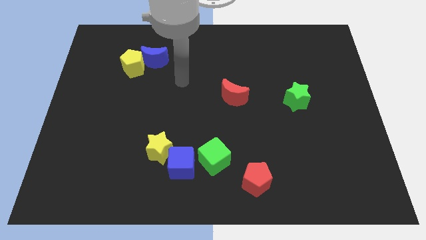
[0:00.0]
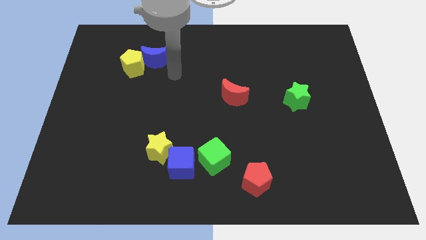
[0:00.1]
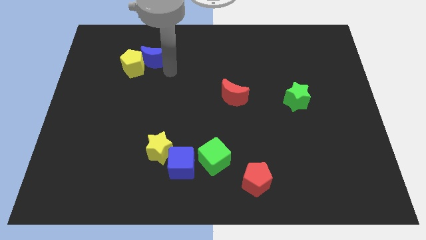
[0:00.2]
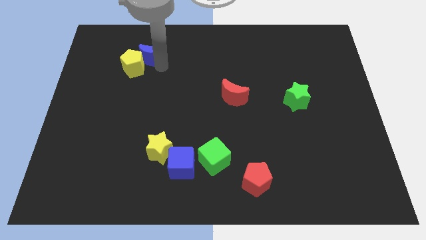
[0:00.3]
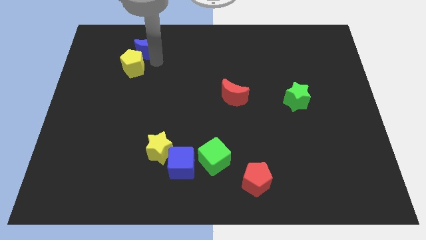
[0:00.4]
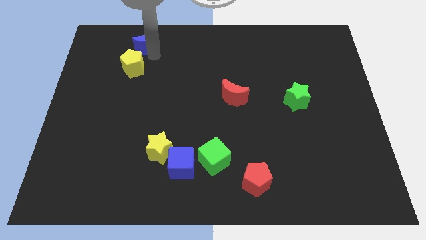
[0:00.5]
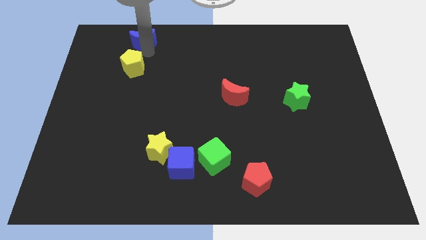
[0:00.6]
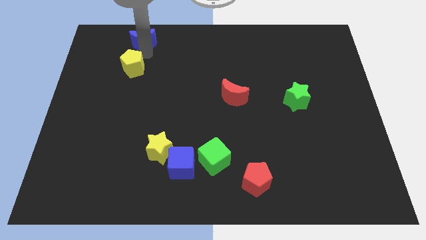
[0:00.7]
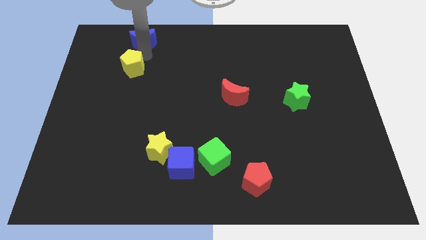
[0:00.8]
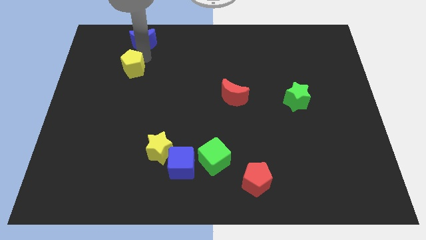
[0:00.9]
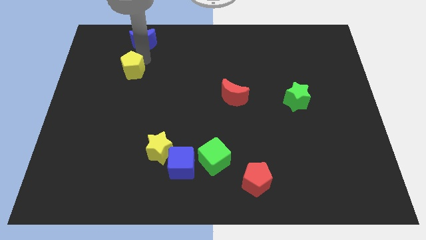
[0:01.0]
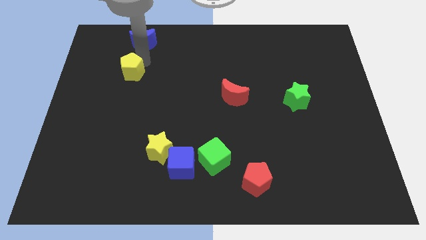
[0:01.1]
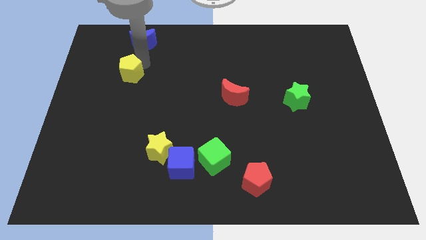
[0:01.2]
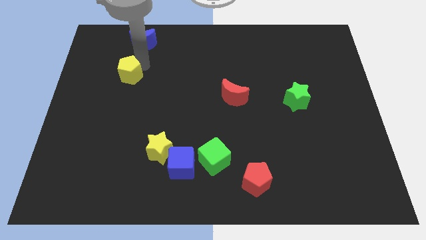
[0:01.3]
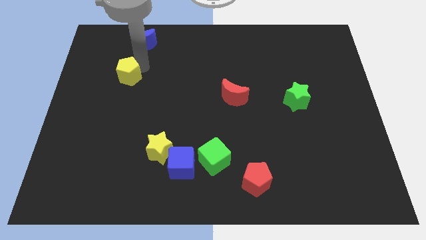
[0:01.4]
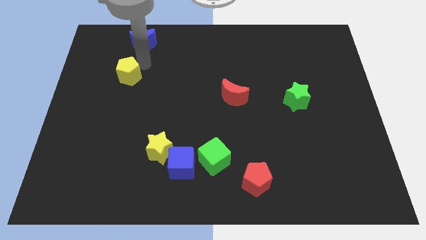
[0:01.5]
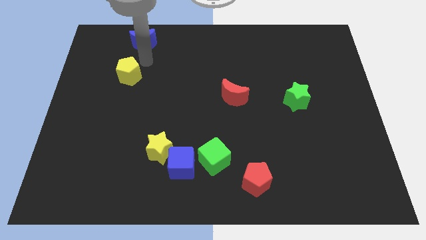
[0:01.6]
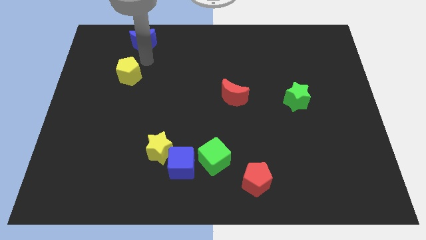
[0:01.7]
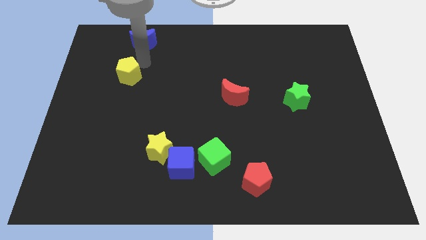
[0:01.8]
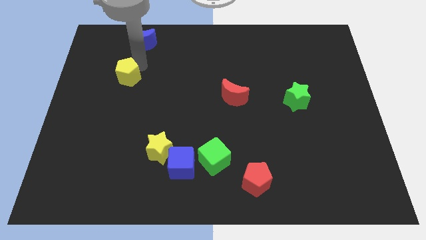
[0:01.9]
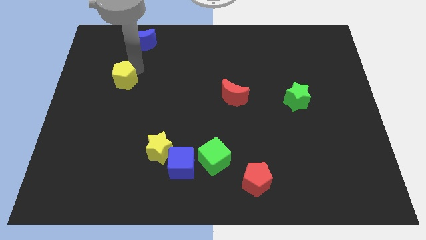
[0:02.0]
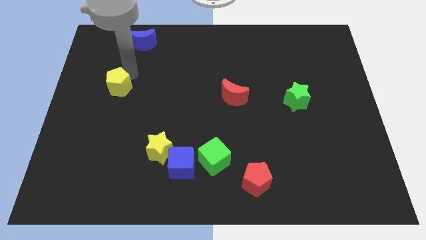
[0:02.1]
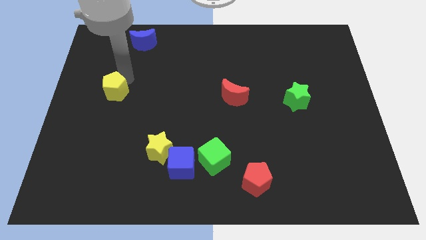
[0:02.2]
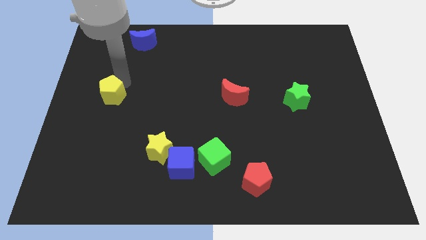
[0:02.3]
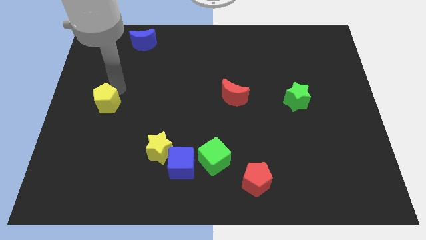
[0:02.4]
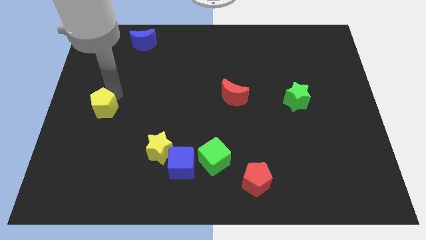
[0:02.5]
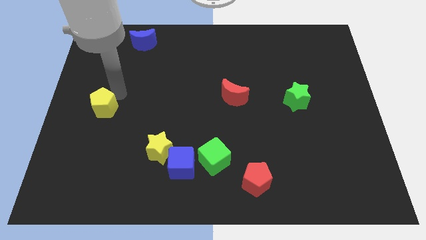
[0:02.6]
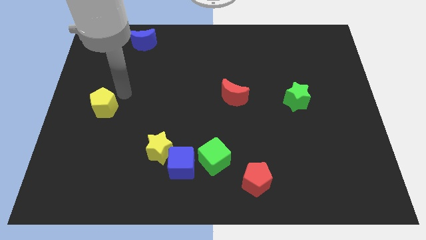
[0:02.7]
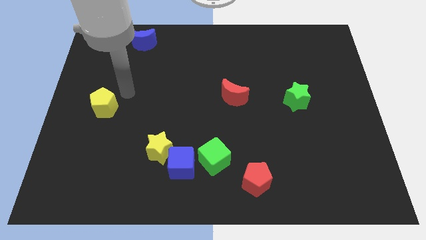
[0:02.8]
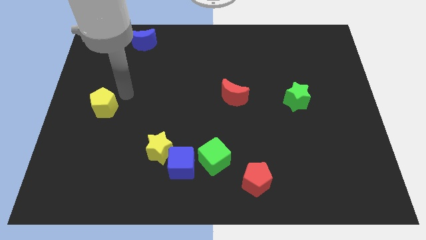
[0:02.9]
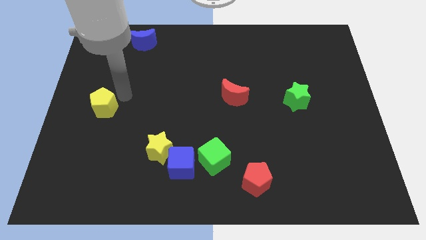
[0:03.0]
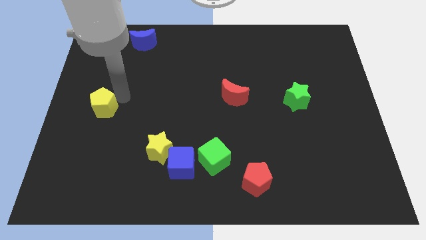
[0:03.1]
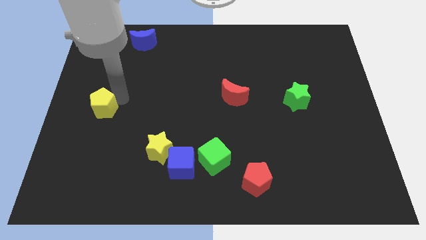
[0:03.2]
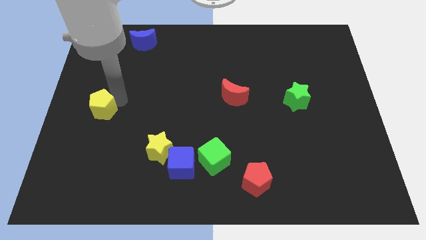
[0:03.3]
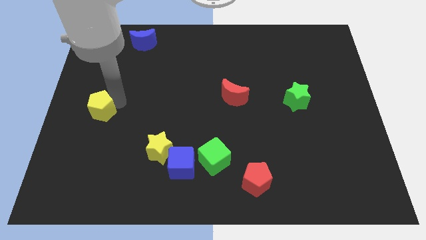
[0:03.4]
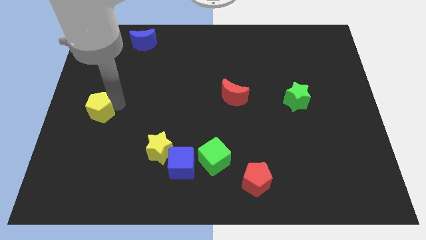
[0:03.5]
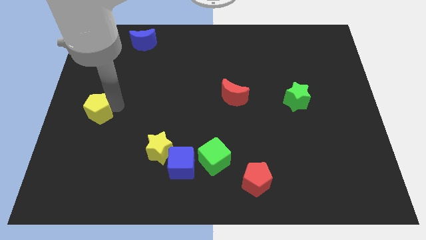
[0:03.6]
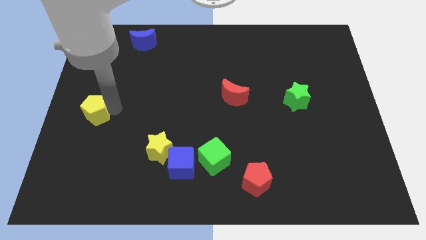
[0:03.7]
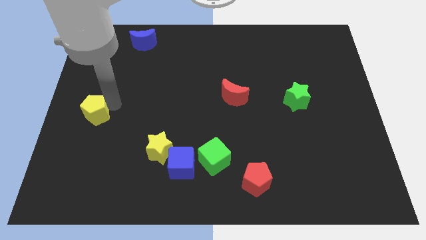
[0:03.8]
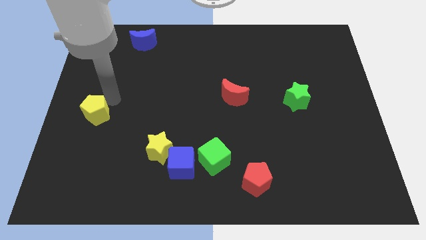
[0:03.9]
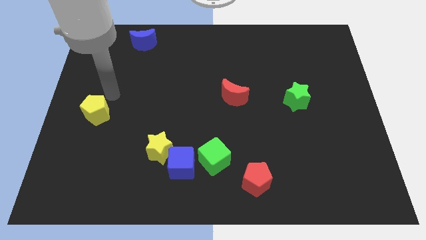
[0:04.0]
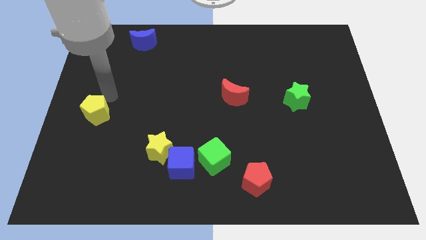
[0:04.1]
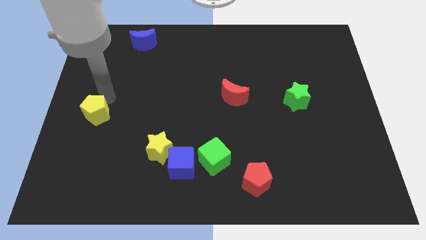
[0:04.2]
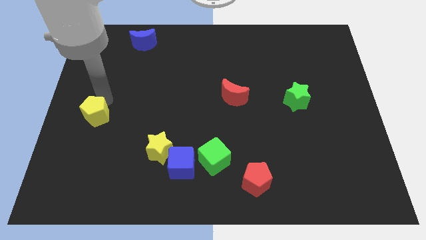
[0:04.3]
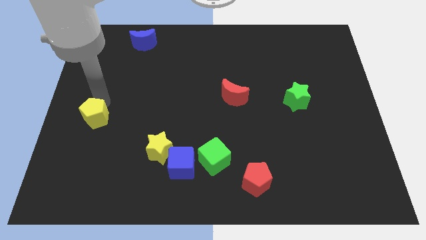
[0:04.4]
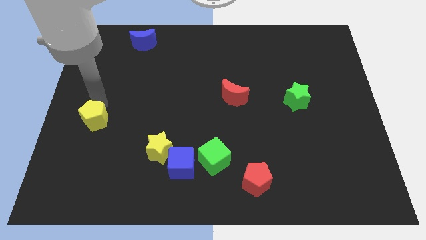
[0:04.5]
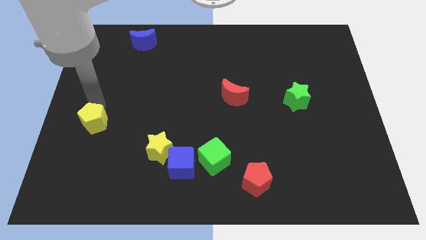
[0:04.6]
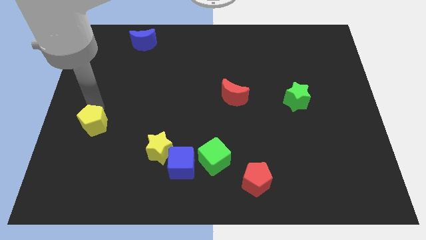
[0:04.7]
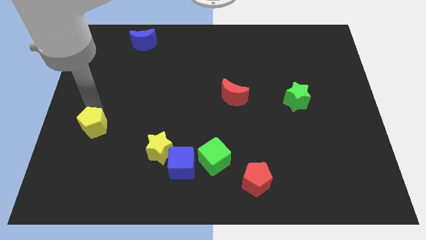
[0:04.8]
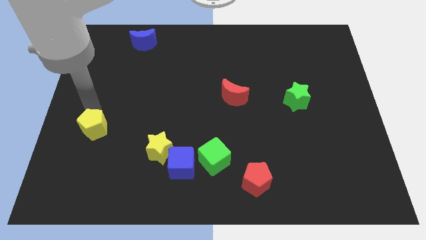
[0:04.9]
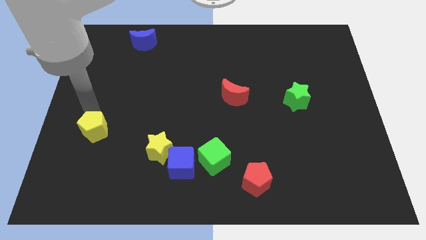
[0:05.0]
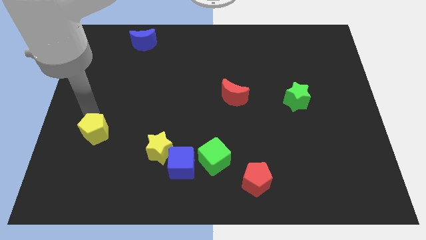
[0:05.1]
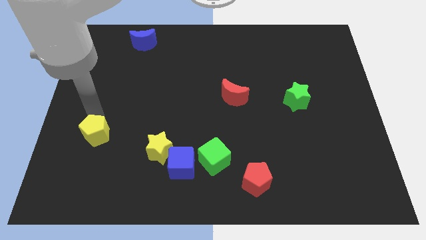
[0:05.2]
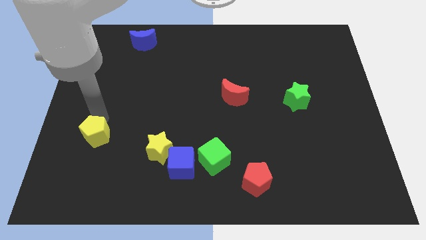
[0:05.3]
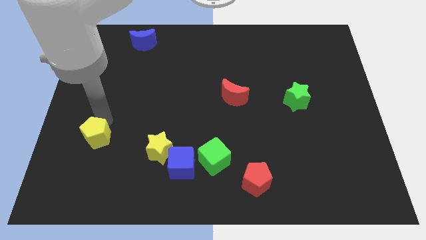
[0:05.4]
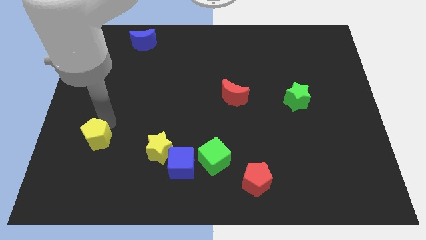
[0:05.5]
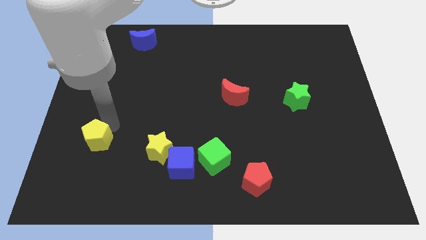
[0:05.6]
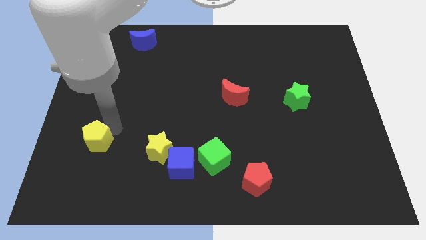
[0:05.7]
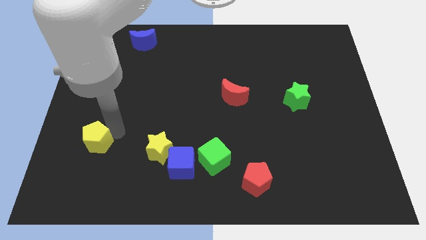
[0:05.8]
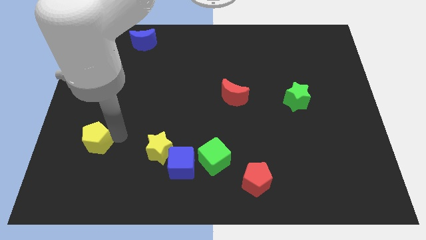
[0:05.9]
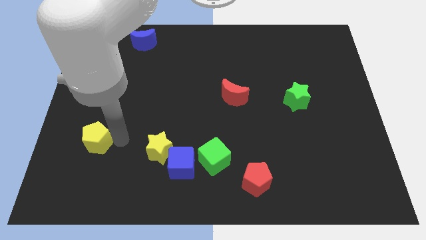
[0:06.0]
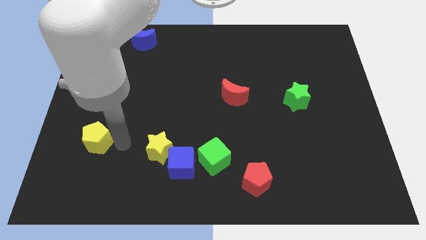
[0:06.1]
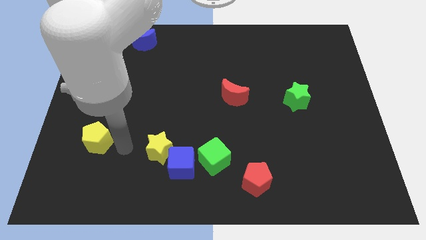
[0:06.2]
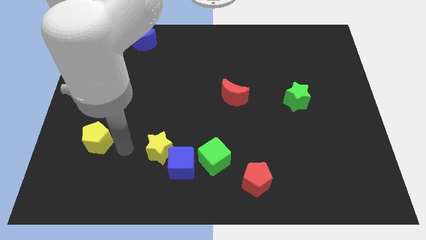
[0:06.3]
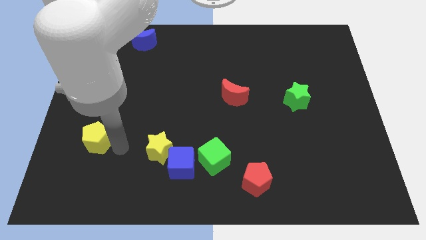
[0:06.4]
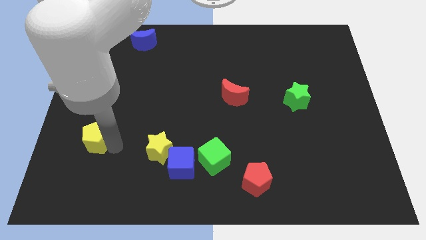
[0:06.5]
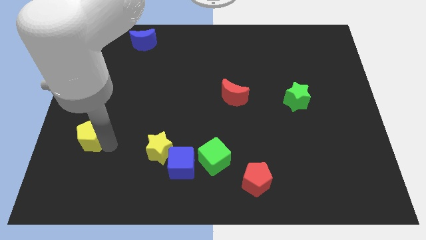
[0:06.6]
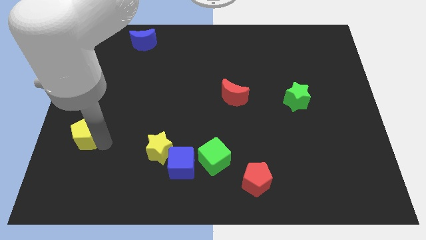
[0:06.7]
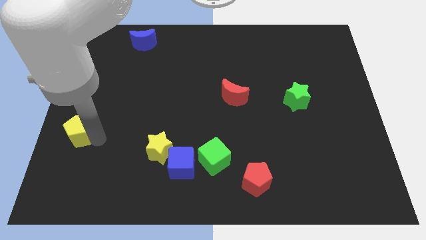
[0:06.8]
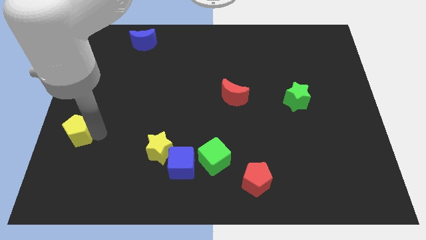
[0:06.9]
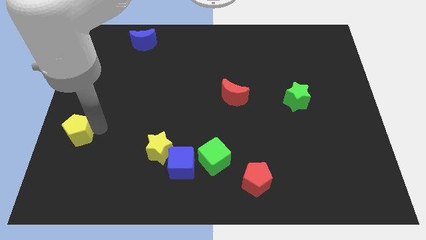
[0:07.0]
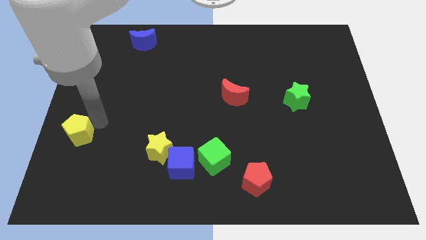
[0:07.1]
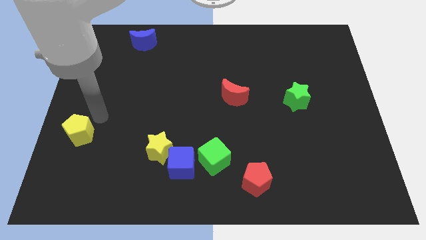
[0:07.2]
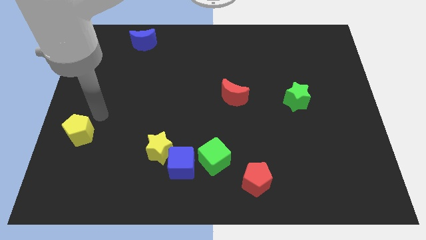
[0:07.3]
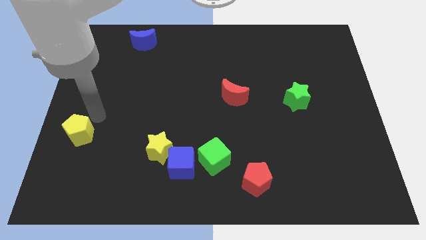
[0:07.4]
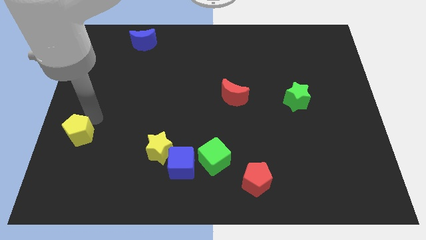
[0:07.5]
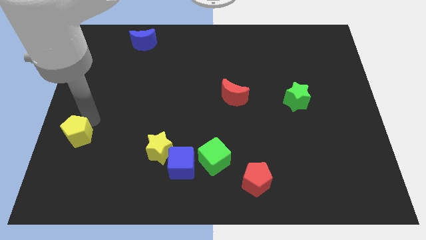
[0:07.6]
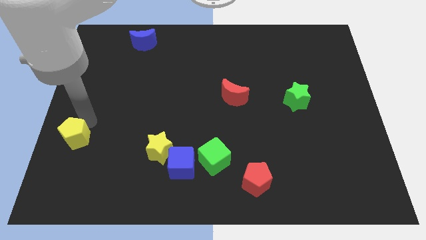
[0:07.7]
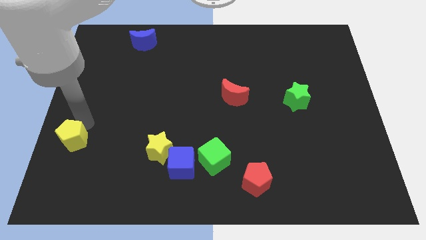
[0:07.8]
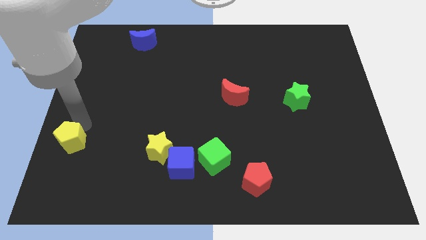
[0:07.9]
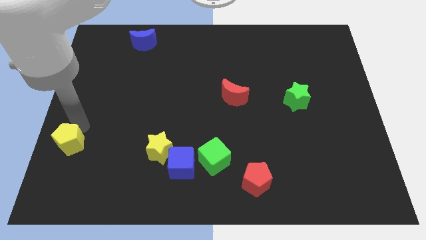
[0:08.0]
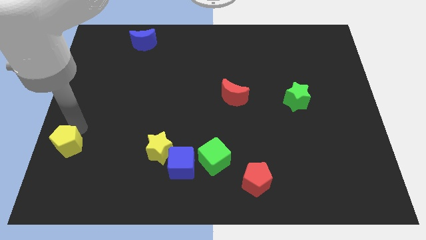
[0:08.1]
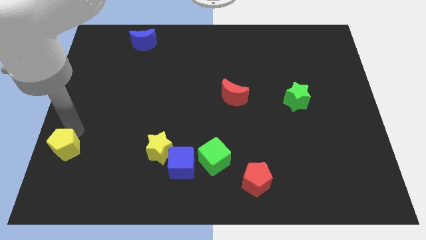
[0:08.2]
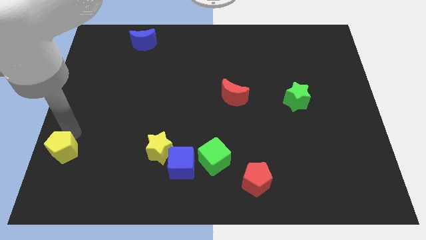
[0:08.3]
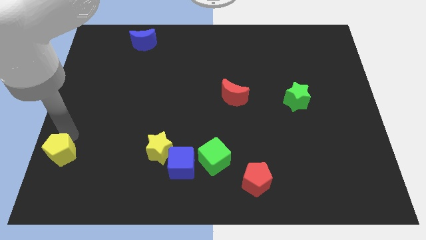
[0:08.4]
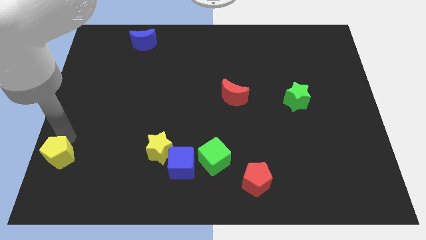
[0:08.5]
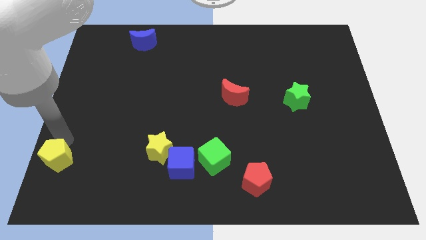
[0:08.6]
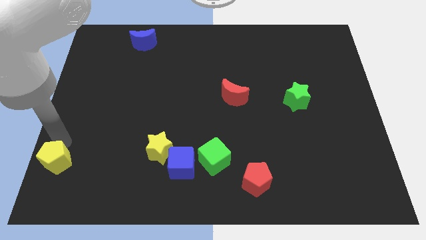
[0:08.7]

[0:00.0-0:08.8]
move the yellow pentagon to the bottom left of the board
